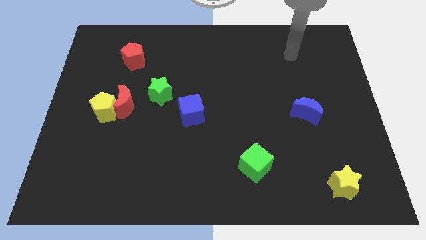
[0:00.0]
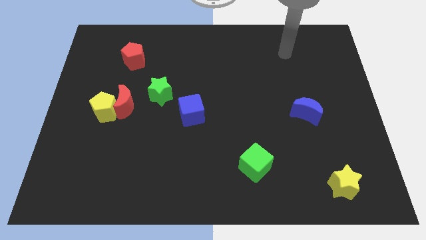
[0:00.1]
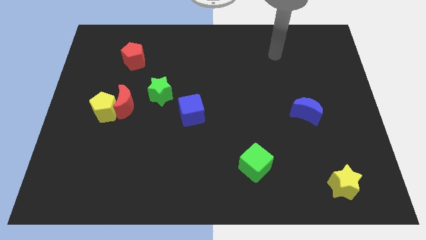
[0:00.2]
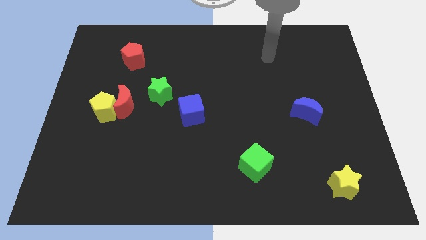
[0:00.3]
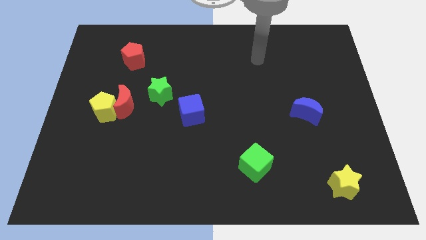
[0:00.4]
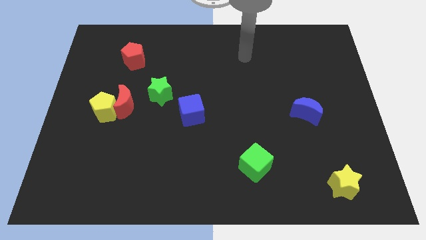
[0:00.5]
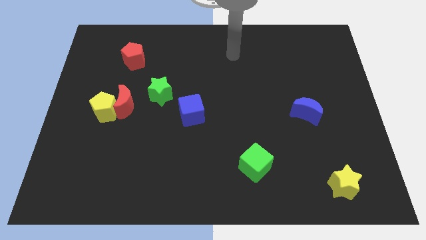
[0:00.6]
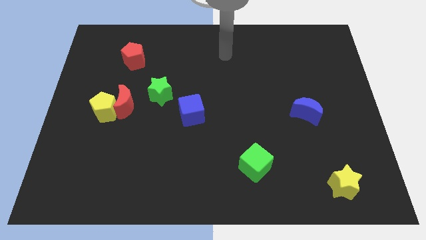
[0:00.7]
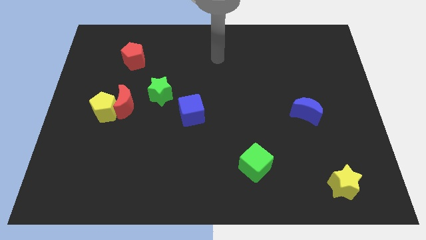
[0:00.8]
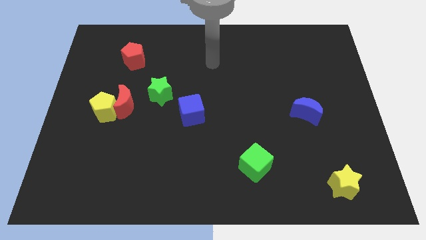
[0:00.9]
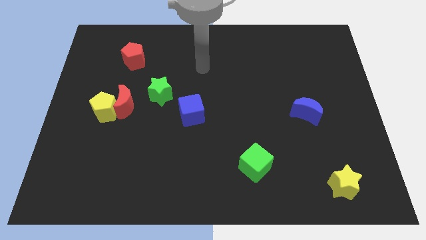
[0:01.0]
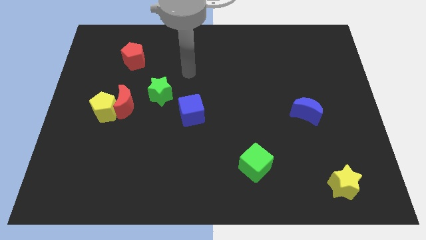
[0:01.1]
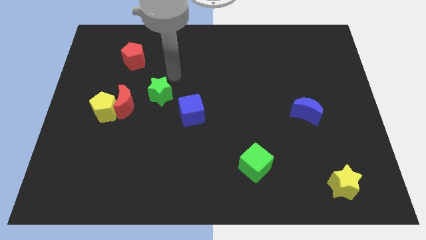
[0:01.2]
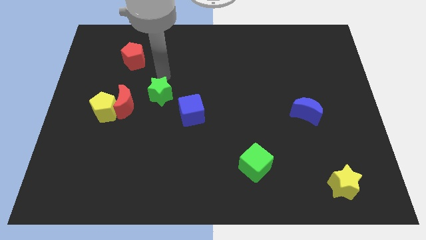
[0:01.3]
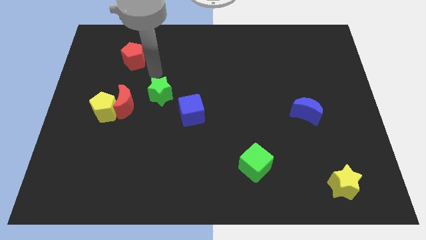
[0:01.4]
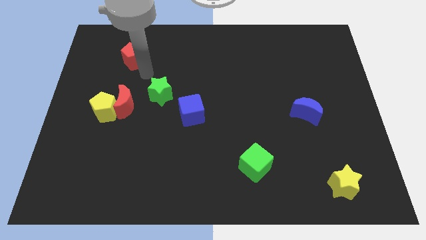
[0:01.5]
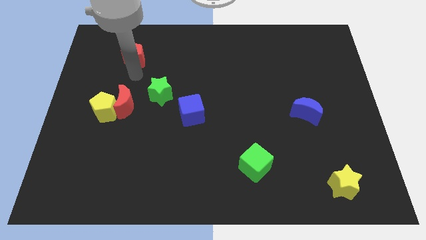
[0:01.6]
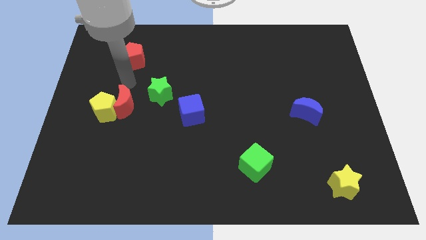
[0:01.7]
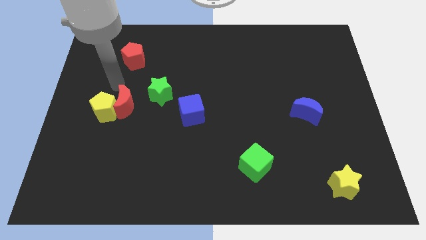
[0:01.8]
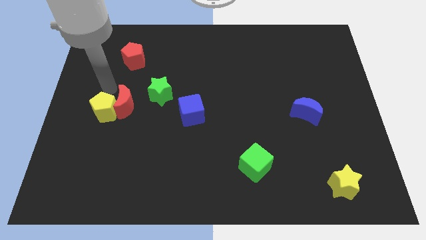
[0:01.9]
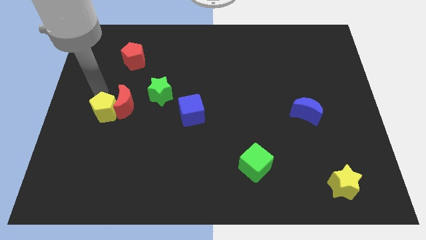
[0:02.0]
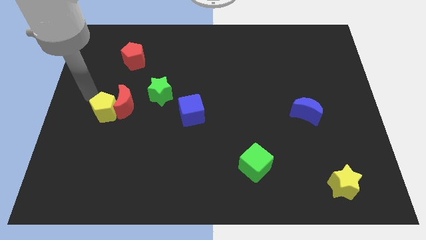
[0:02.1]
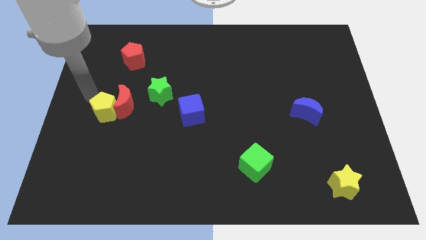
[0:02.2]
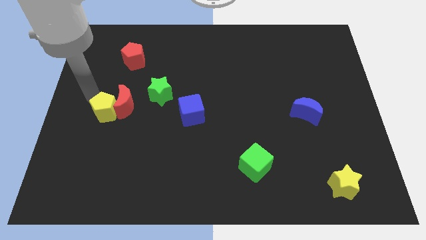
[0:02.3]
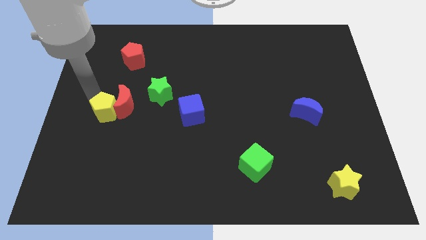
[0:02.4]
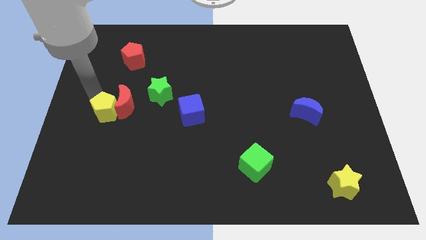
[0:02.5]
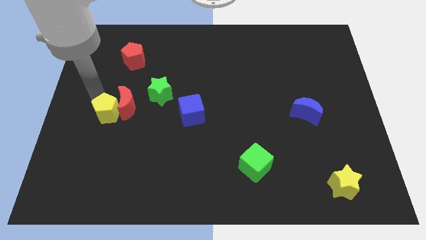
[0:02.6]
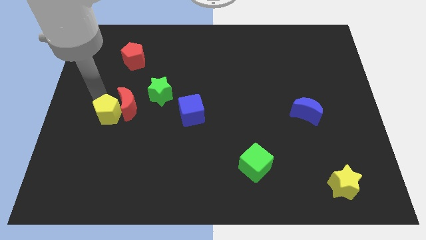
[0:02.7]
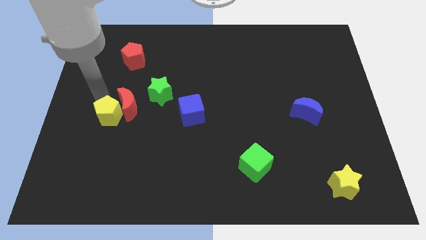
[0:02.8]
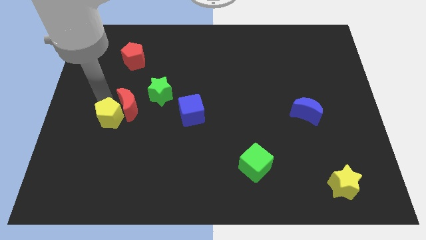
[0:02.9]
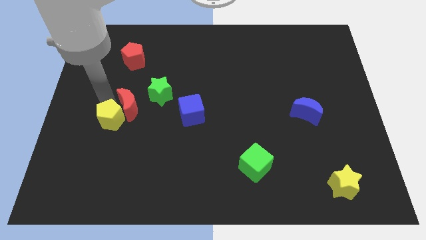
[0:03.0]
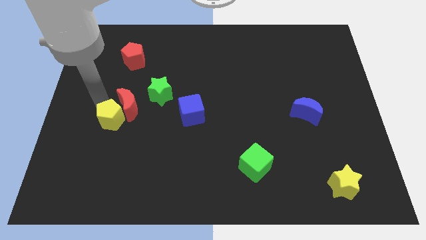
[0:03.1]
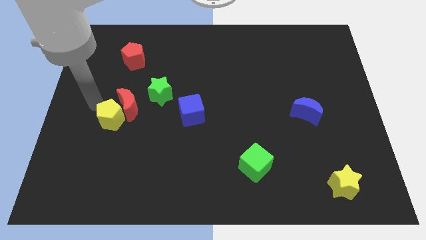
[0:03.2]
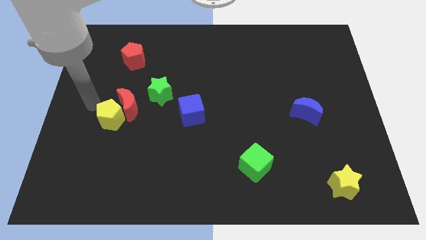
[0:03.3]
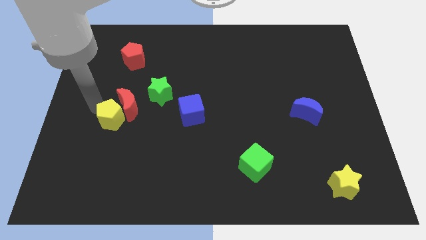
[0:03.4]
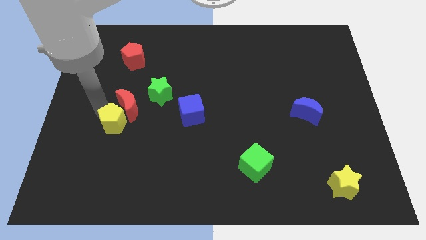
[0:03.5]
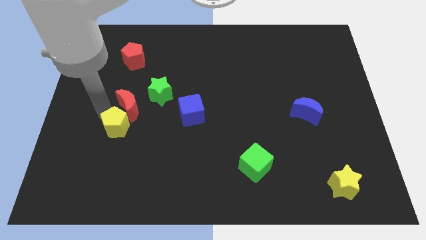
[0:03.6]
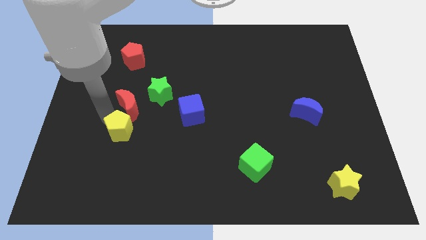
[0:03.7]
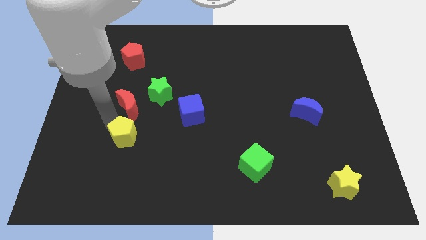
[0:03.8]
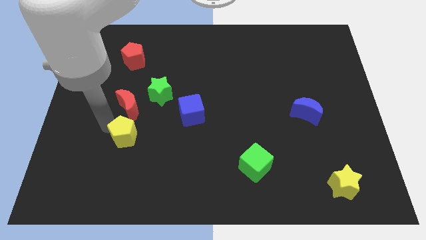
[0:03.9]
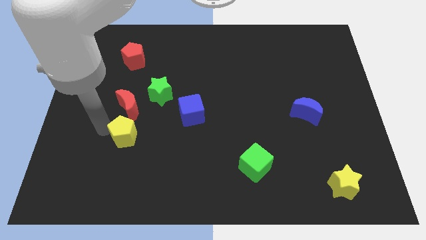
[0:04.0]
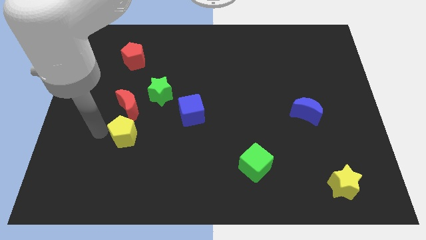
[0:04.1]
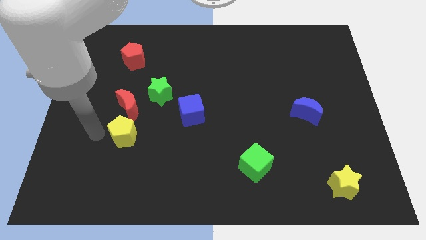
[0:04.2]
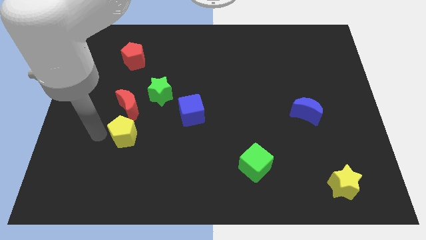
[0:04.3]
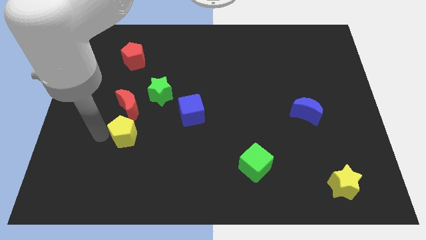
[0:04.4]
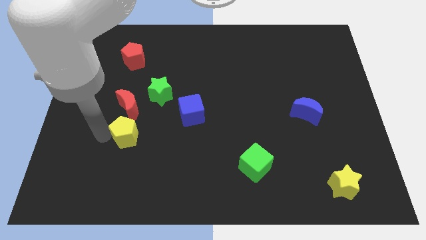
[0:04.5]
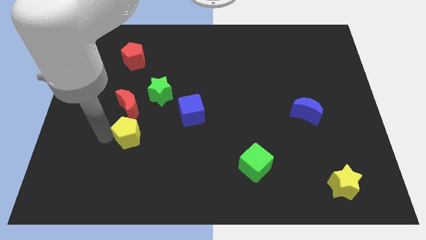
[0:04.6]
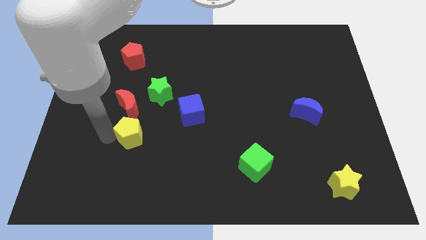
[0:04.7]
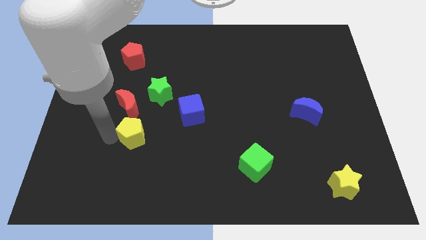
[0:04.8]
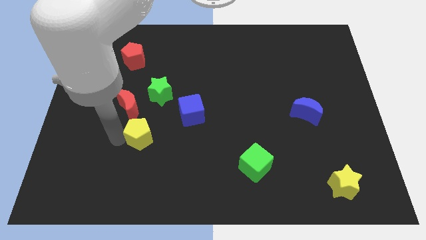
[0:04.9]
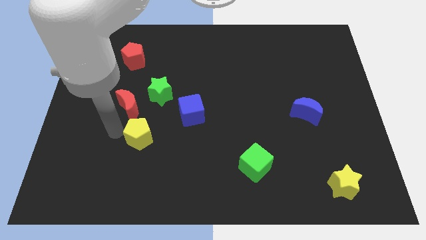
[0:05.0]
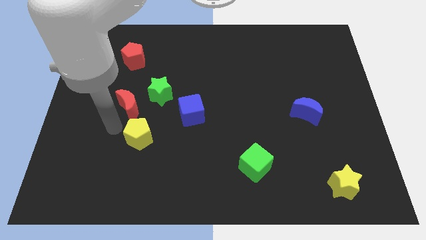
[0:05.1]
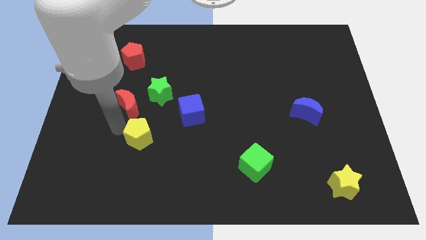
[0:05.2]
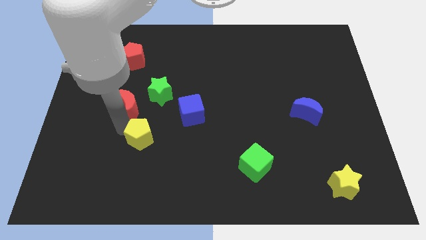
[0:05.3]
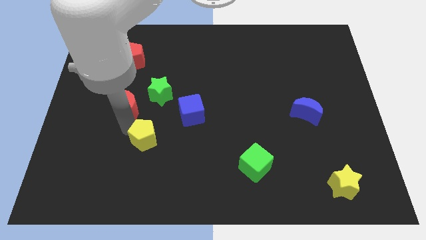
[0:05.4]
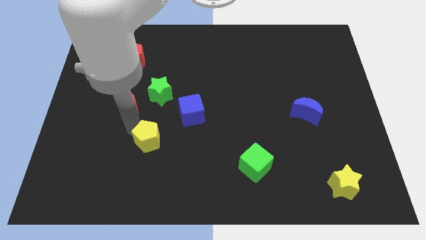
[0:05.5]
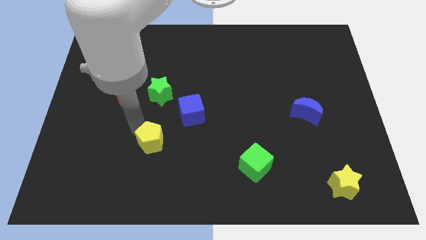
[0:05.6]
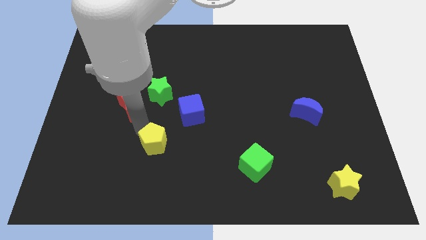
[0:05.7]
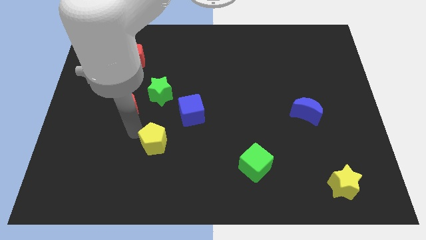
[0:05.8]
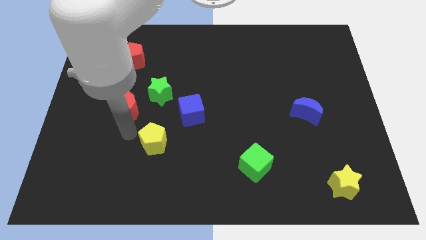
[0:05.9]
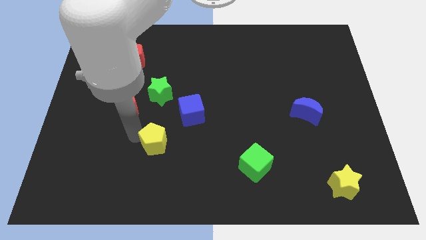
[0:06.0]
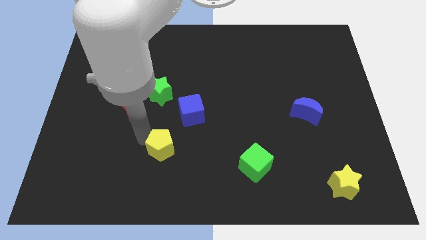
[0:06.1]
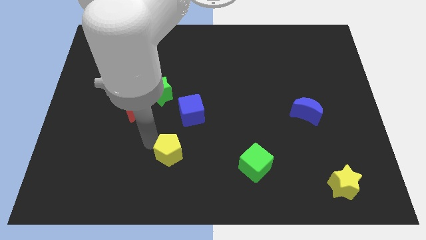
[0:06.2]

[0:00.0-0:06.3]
slide the yellow pentagon to the bottom of the blue cube

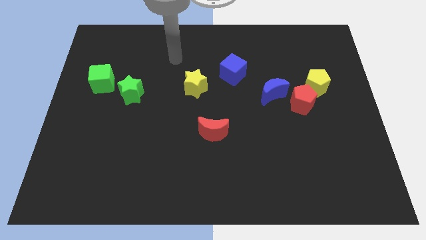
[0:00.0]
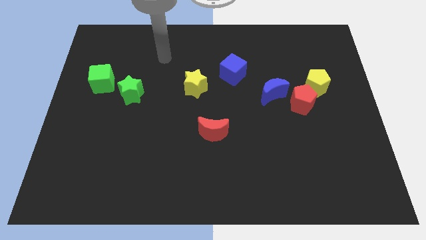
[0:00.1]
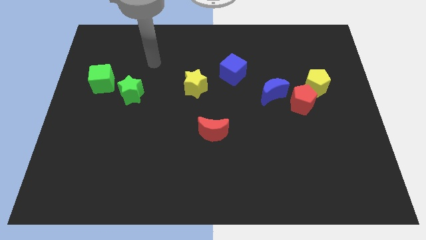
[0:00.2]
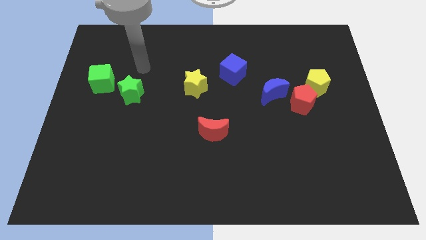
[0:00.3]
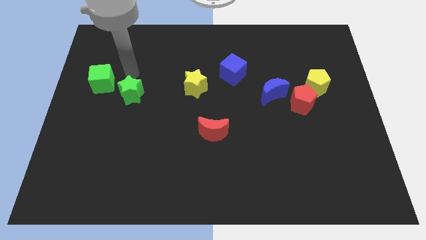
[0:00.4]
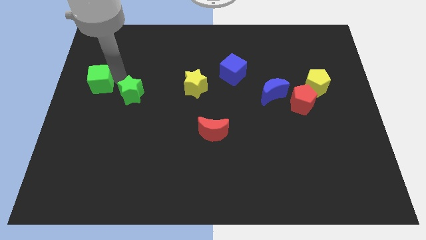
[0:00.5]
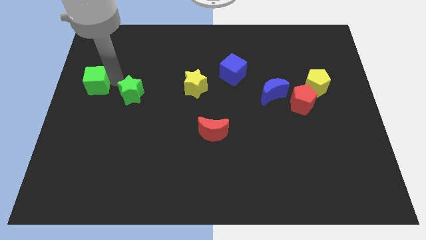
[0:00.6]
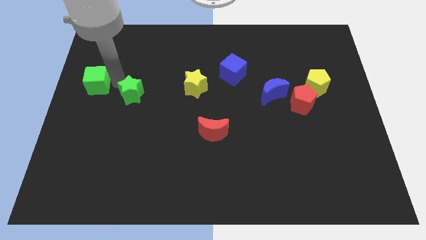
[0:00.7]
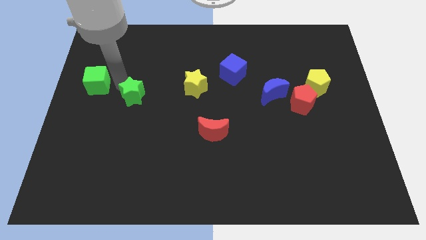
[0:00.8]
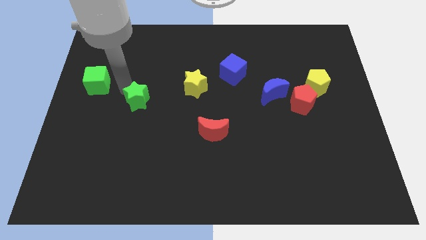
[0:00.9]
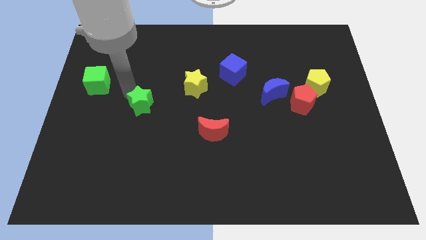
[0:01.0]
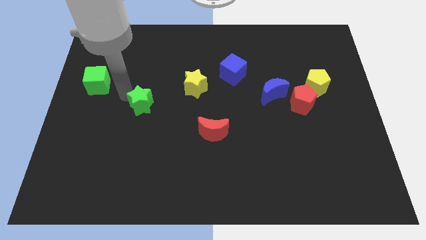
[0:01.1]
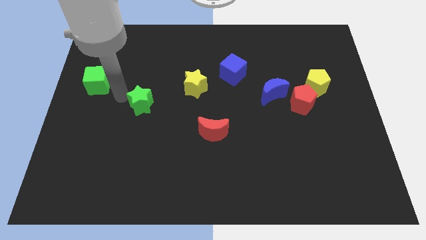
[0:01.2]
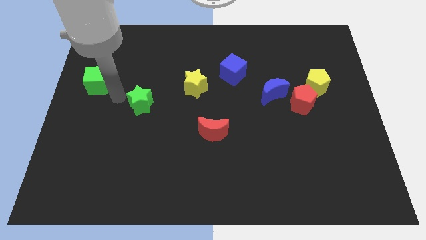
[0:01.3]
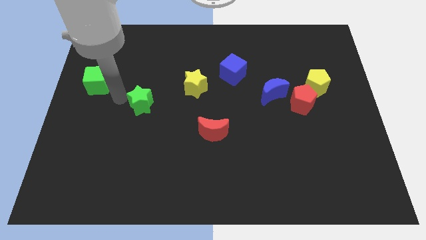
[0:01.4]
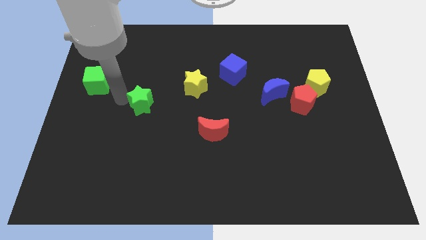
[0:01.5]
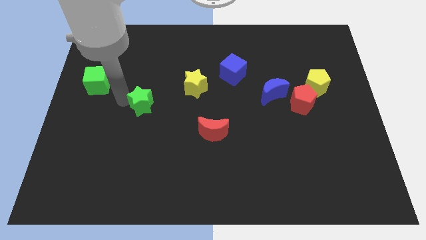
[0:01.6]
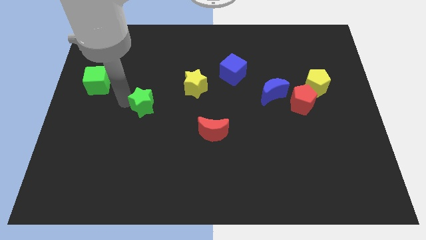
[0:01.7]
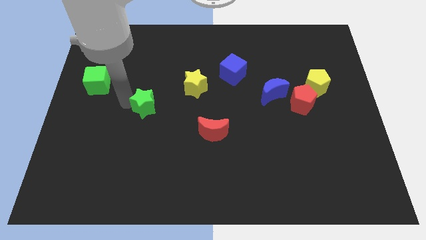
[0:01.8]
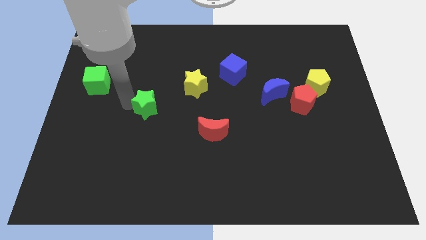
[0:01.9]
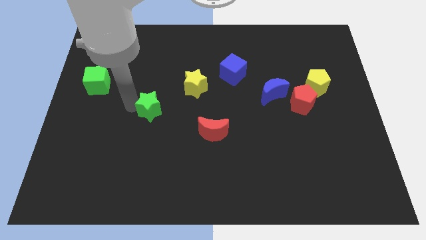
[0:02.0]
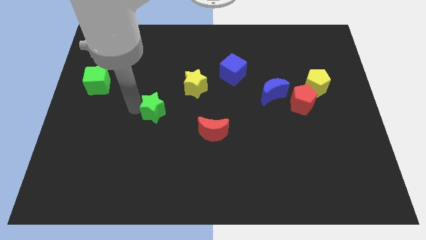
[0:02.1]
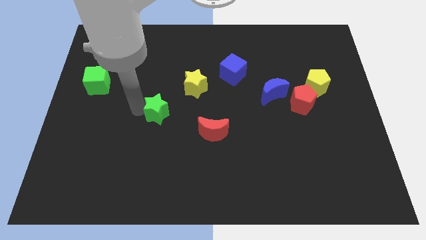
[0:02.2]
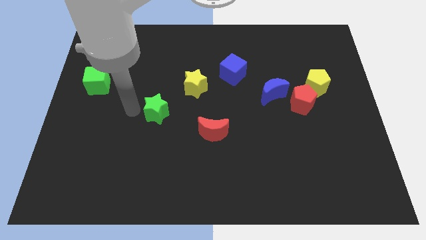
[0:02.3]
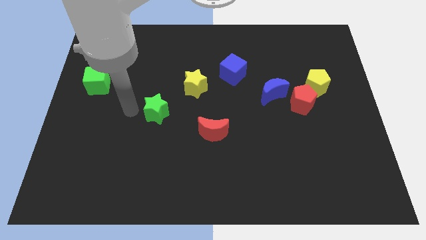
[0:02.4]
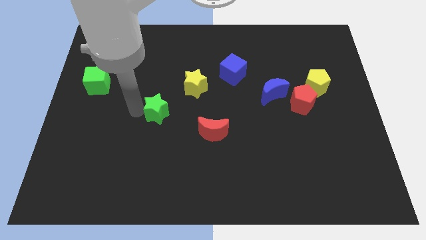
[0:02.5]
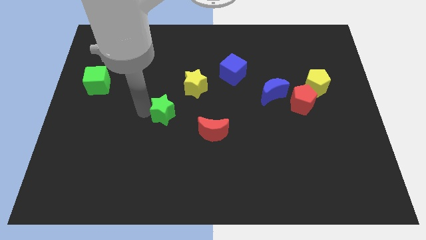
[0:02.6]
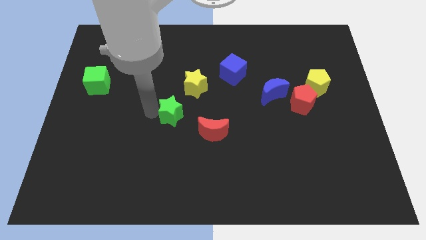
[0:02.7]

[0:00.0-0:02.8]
put the green star to the top left of the red moon
